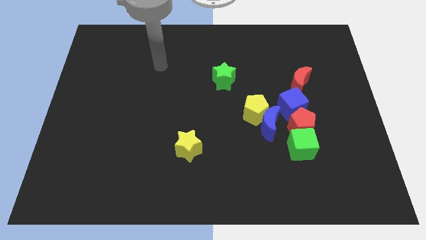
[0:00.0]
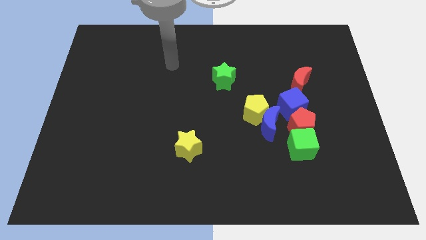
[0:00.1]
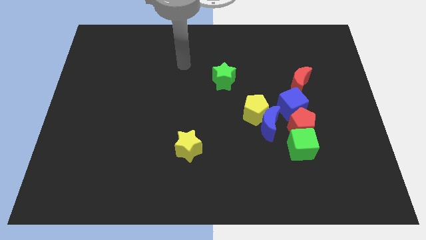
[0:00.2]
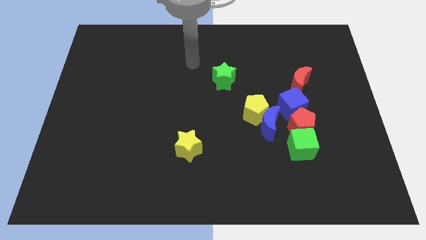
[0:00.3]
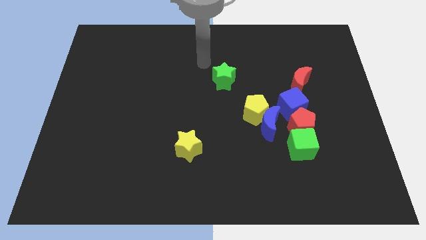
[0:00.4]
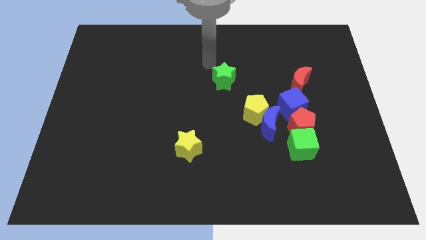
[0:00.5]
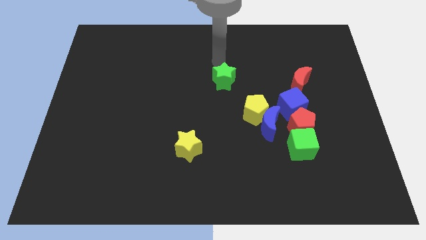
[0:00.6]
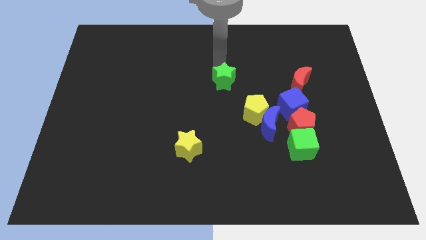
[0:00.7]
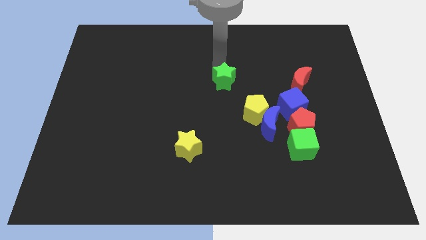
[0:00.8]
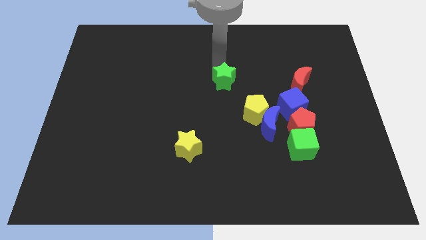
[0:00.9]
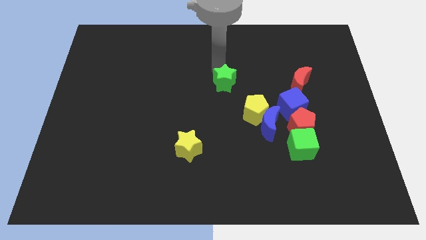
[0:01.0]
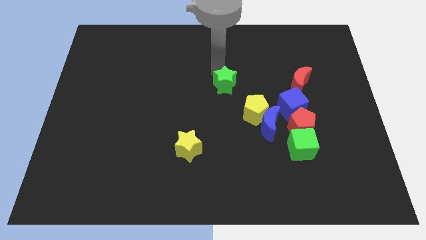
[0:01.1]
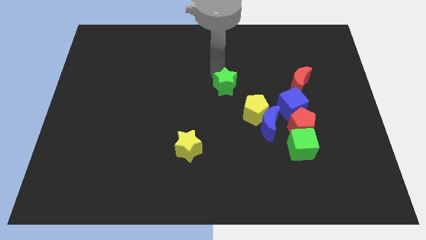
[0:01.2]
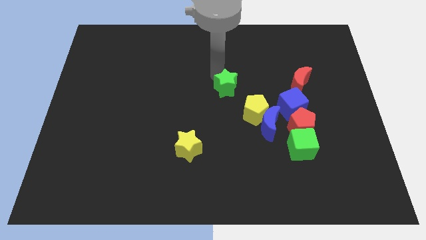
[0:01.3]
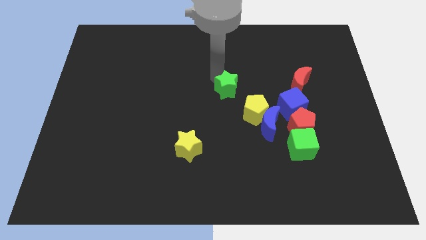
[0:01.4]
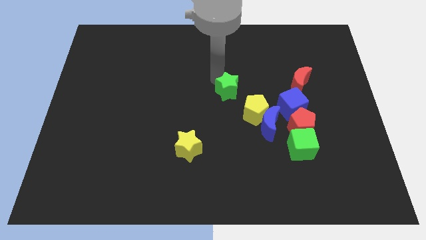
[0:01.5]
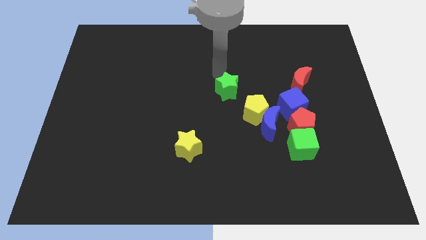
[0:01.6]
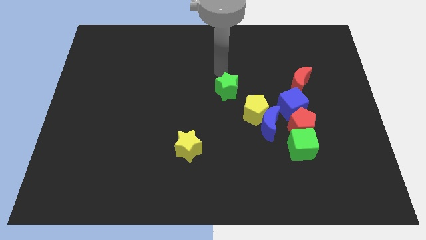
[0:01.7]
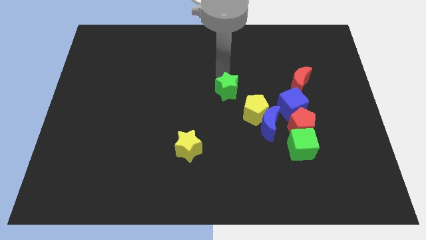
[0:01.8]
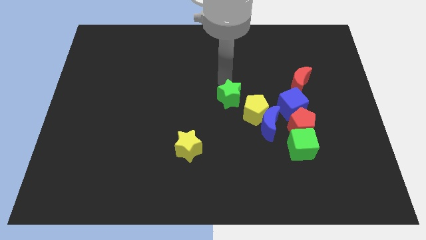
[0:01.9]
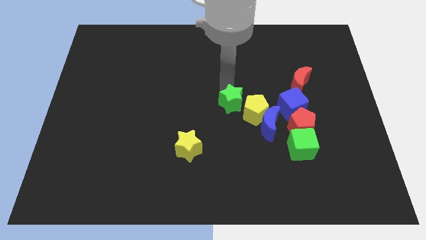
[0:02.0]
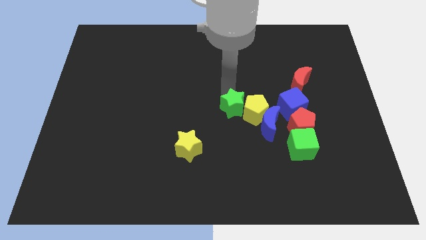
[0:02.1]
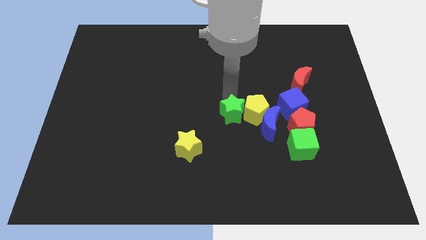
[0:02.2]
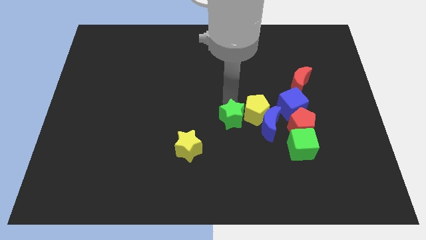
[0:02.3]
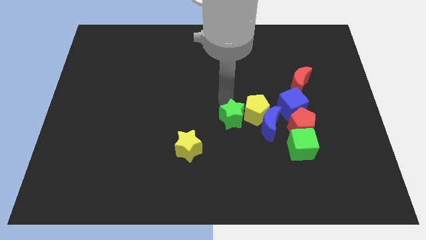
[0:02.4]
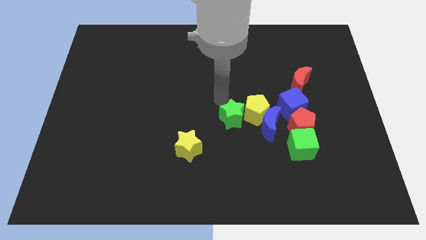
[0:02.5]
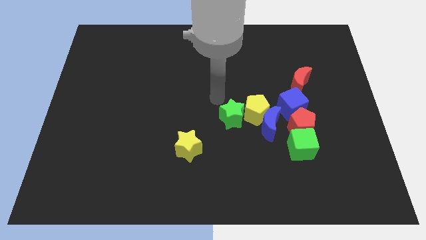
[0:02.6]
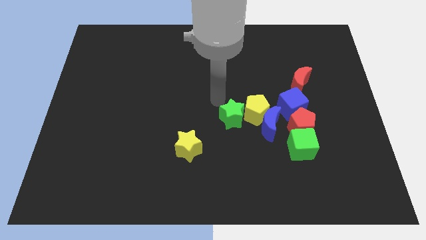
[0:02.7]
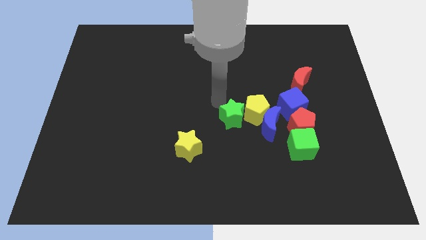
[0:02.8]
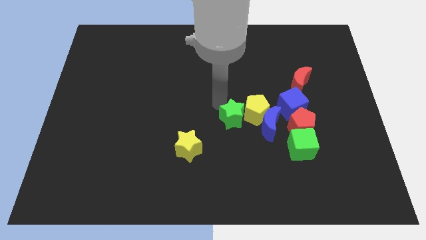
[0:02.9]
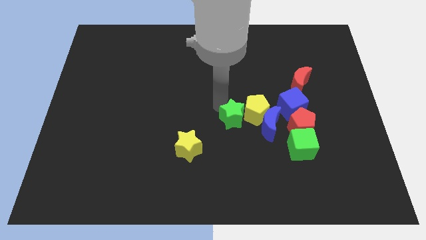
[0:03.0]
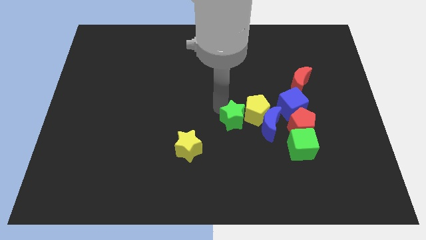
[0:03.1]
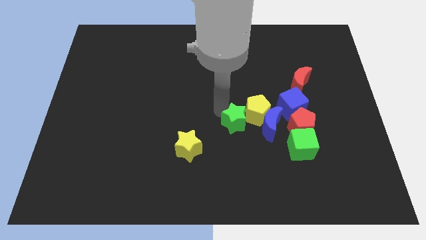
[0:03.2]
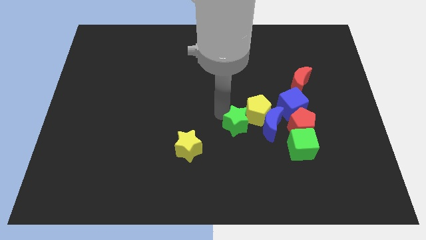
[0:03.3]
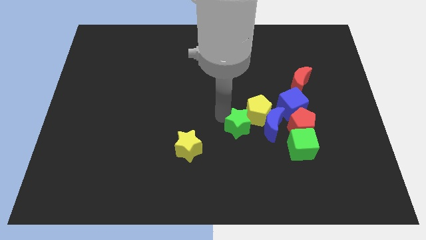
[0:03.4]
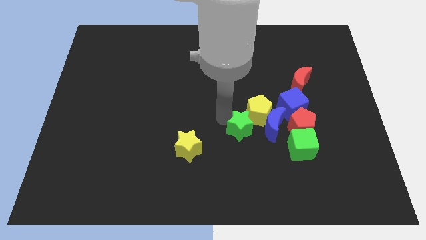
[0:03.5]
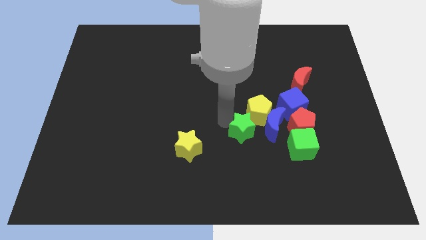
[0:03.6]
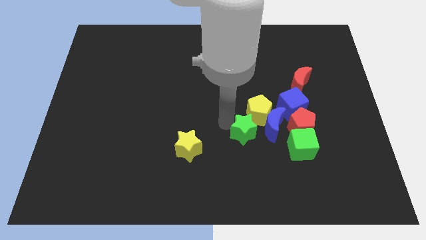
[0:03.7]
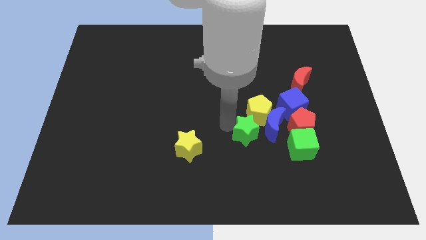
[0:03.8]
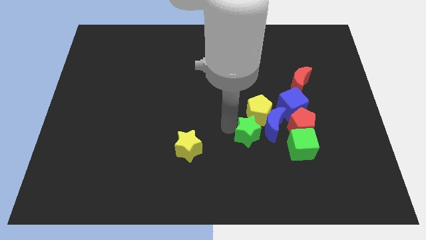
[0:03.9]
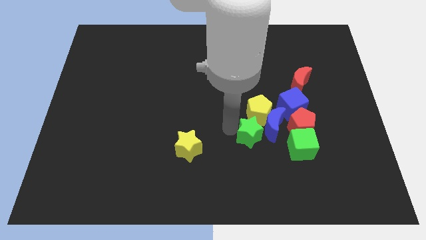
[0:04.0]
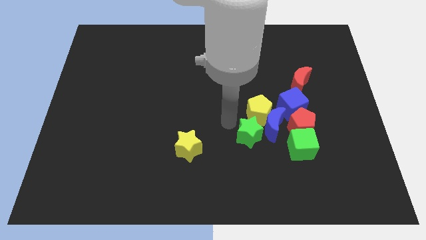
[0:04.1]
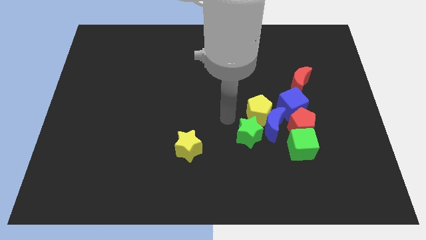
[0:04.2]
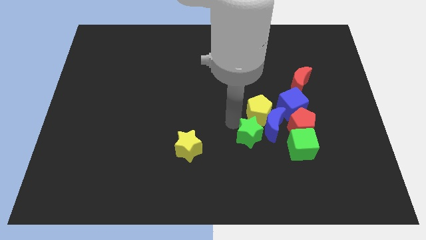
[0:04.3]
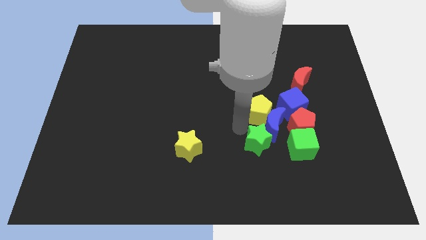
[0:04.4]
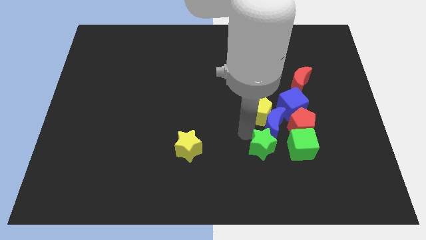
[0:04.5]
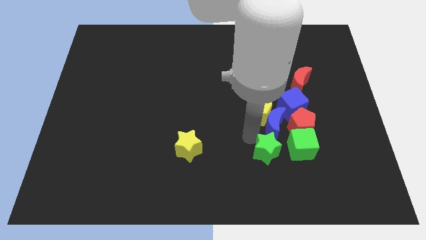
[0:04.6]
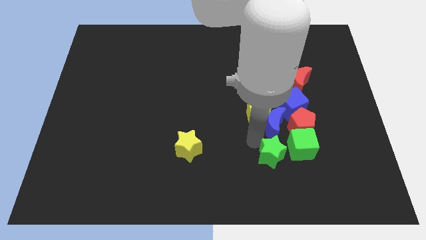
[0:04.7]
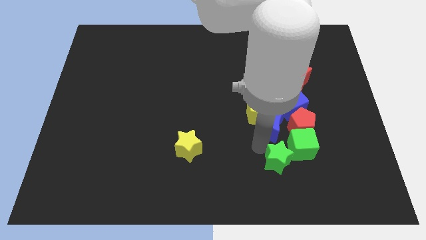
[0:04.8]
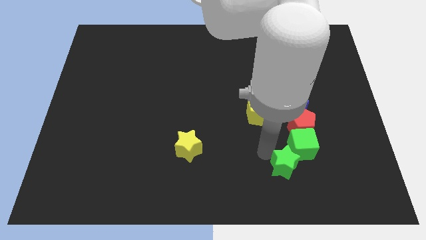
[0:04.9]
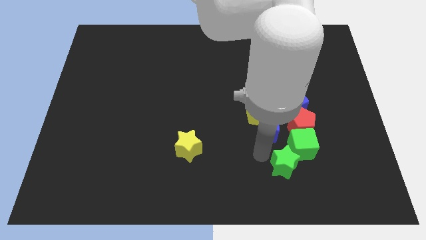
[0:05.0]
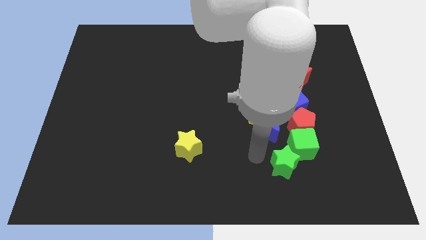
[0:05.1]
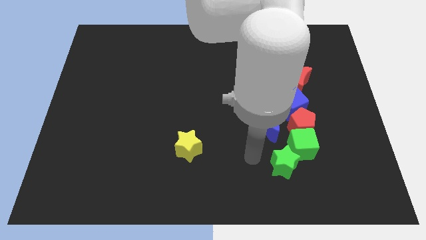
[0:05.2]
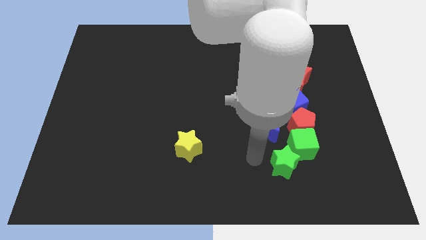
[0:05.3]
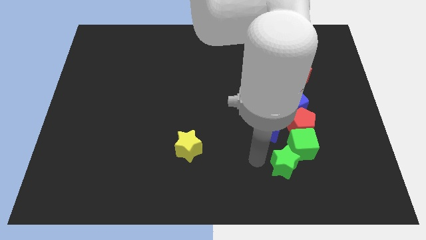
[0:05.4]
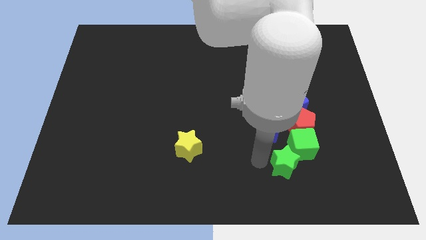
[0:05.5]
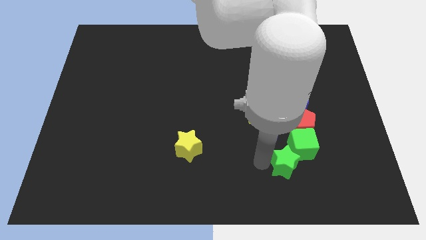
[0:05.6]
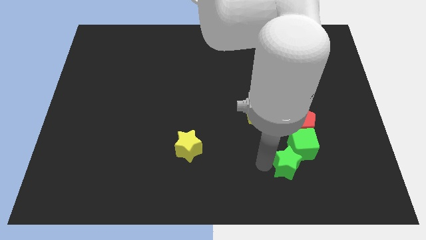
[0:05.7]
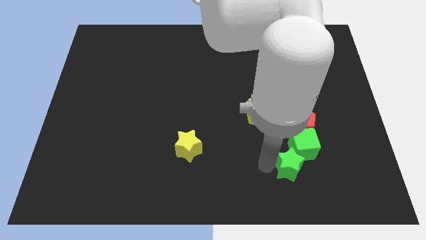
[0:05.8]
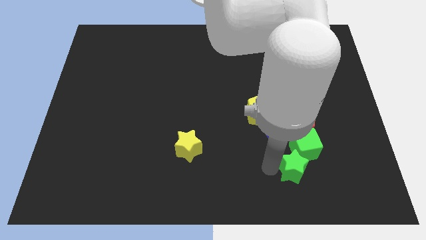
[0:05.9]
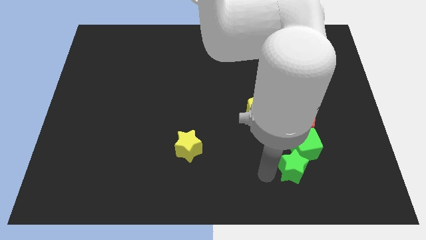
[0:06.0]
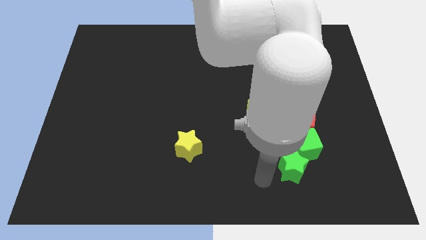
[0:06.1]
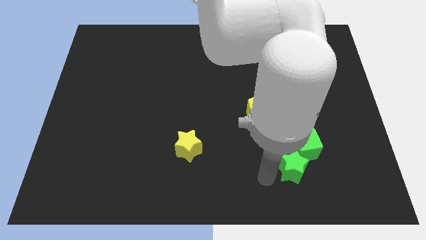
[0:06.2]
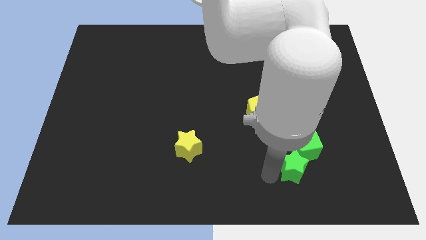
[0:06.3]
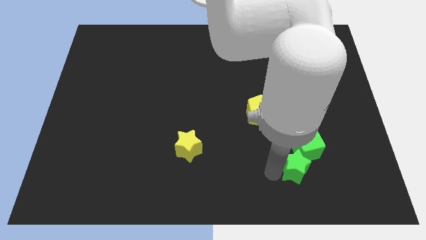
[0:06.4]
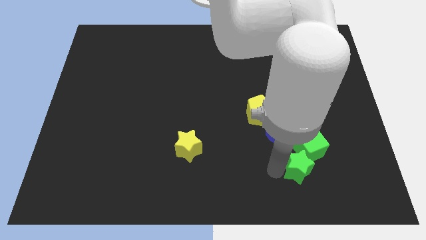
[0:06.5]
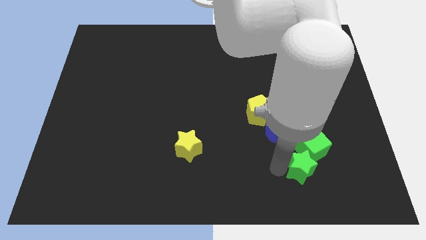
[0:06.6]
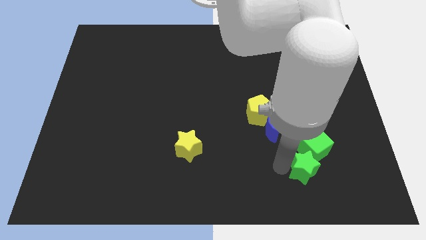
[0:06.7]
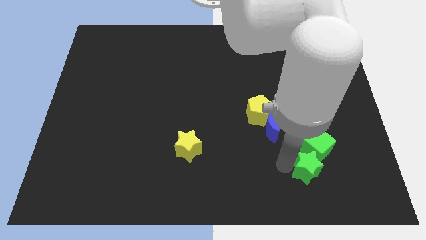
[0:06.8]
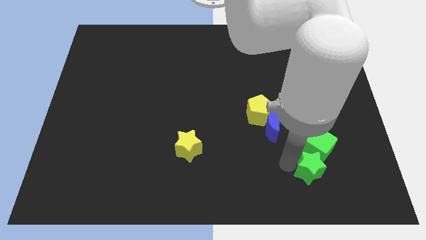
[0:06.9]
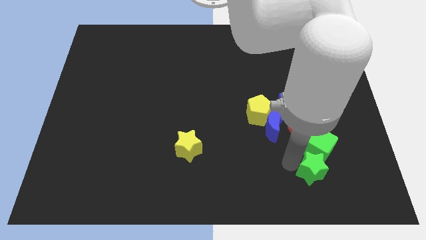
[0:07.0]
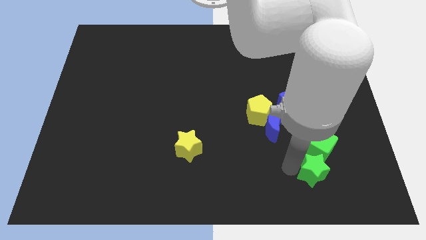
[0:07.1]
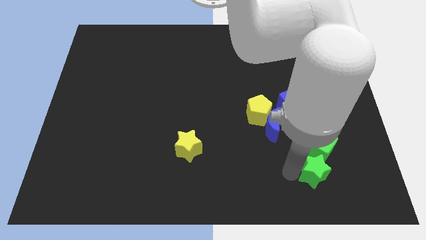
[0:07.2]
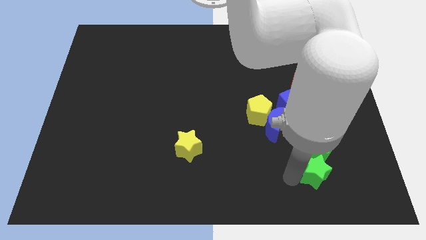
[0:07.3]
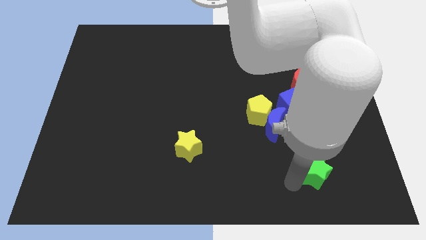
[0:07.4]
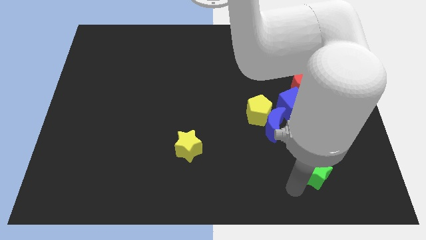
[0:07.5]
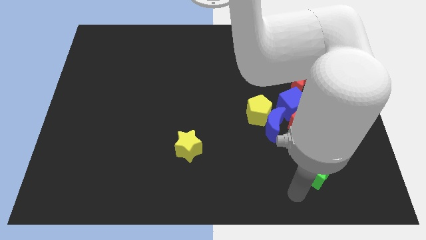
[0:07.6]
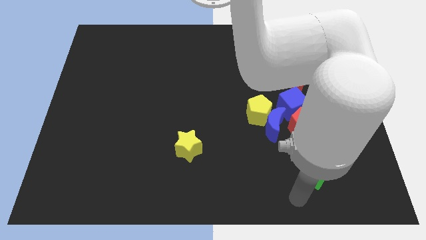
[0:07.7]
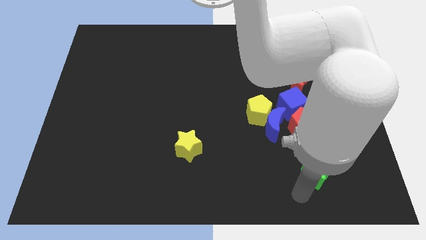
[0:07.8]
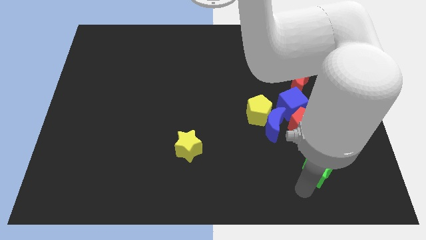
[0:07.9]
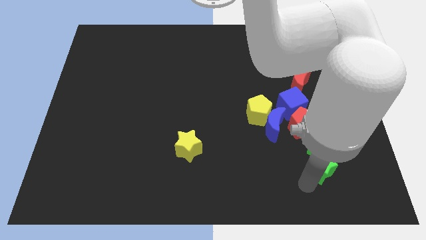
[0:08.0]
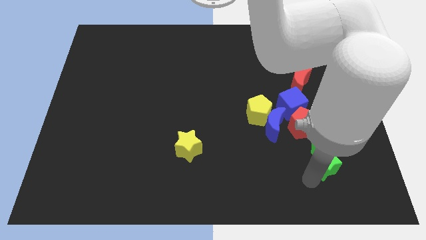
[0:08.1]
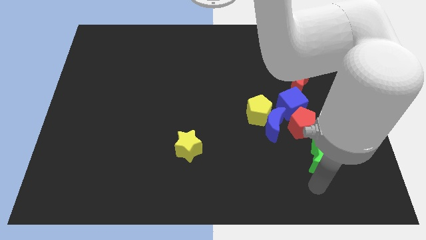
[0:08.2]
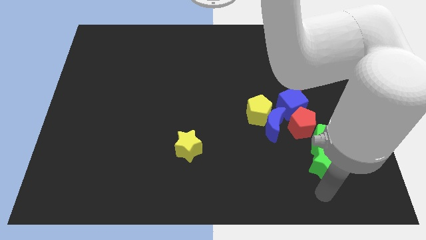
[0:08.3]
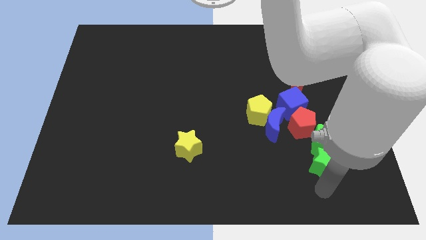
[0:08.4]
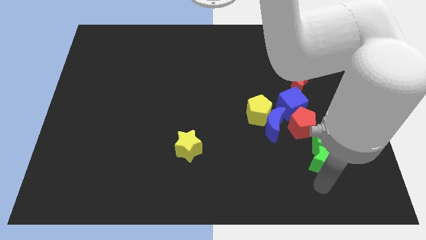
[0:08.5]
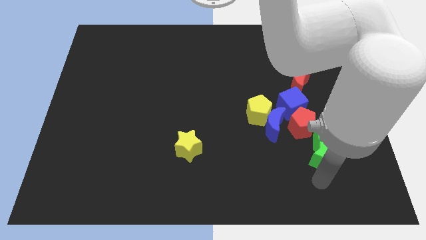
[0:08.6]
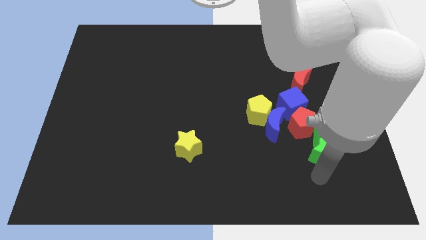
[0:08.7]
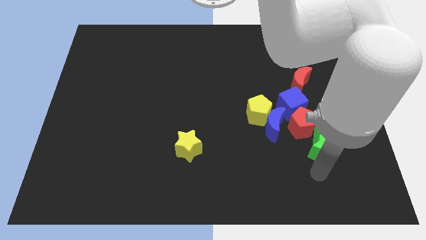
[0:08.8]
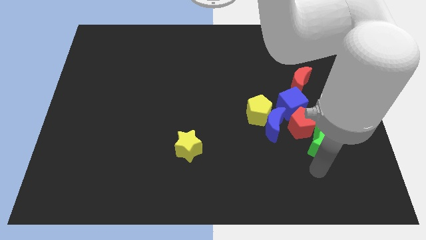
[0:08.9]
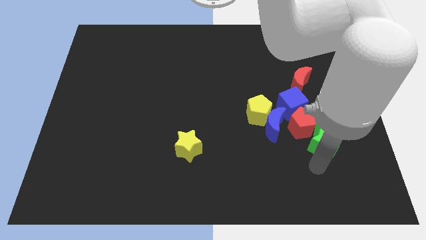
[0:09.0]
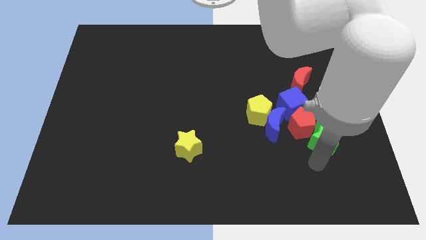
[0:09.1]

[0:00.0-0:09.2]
put the green star to the right side of the blue moon
